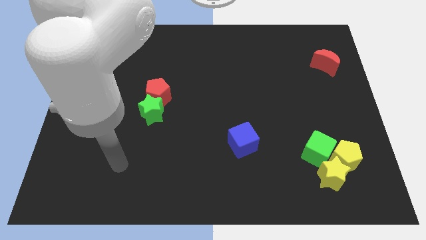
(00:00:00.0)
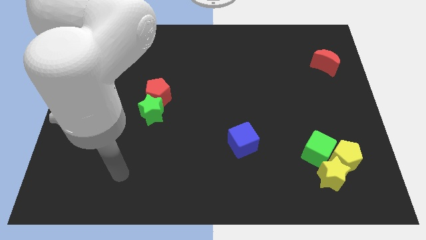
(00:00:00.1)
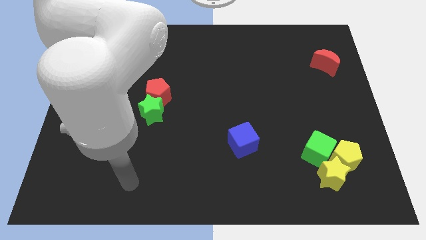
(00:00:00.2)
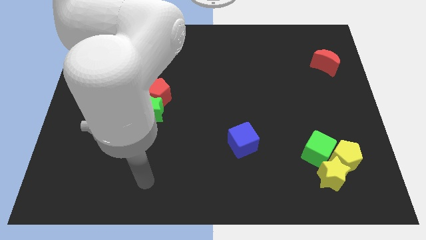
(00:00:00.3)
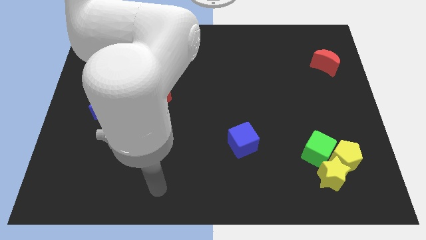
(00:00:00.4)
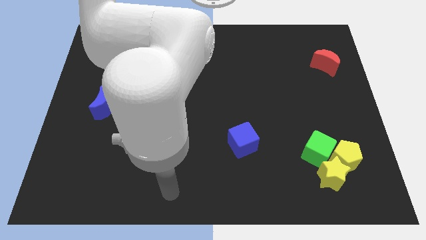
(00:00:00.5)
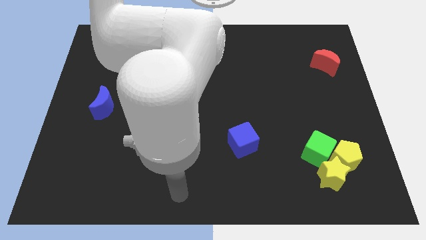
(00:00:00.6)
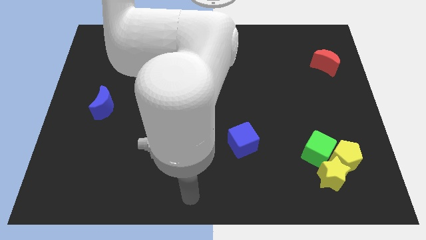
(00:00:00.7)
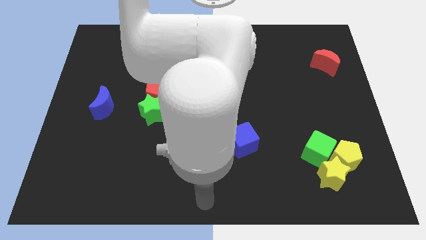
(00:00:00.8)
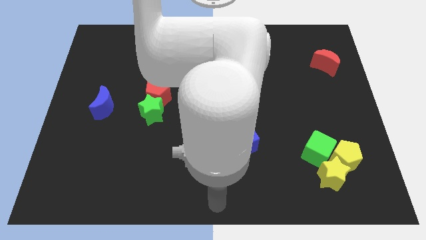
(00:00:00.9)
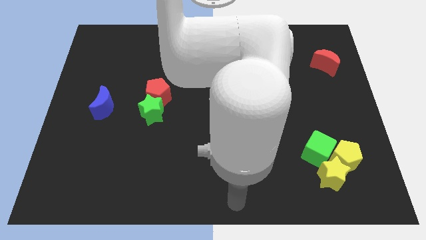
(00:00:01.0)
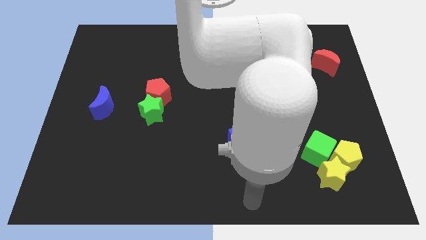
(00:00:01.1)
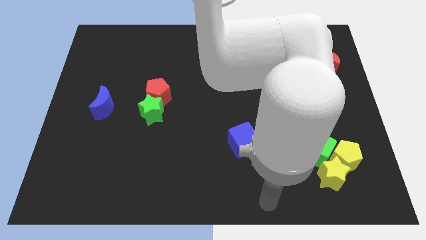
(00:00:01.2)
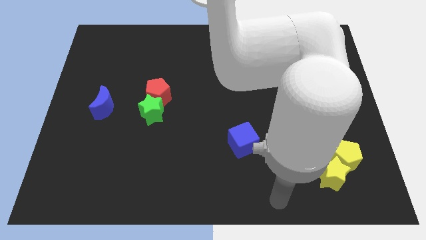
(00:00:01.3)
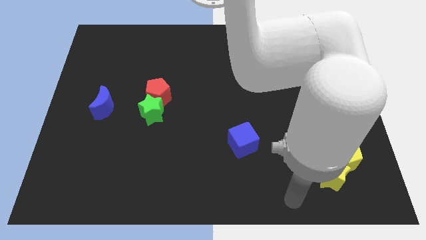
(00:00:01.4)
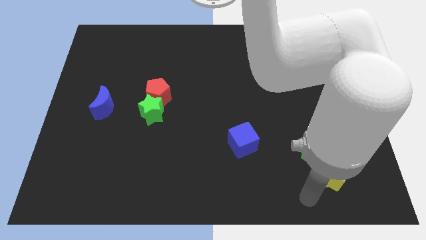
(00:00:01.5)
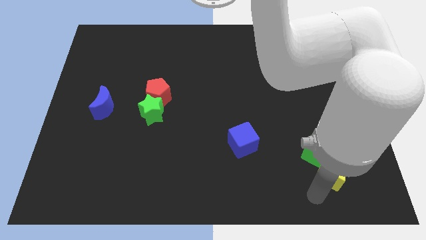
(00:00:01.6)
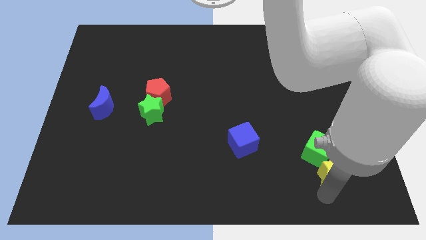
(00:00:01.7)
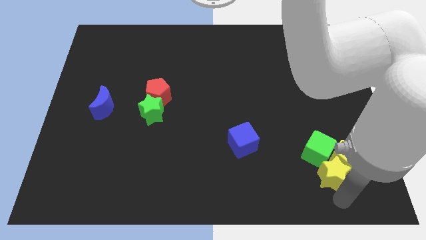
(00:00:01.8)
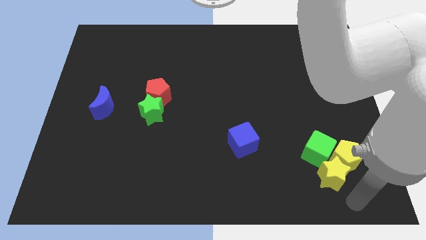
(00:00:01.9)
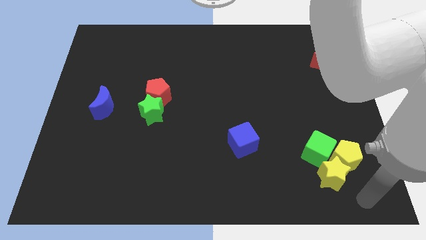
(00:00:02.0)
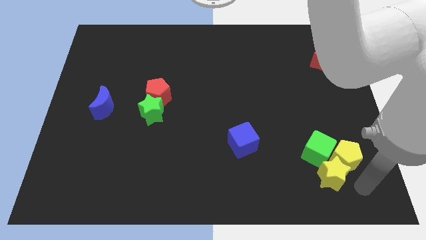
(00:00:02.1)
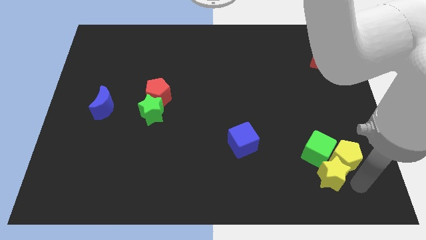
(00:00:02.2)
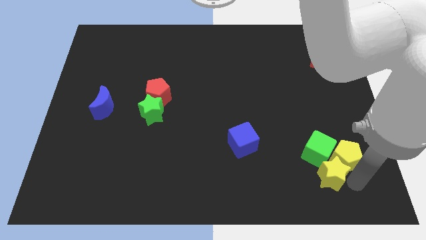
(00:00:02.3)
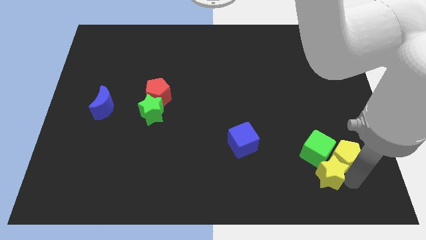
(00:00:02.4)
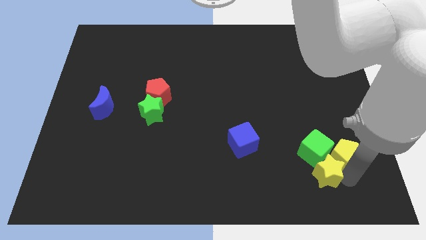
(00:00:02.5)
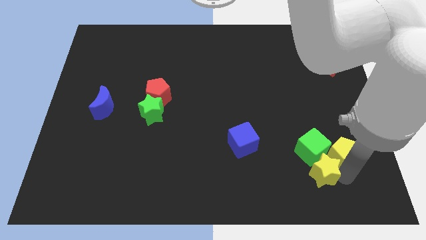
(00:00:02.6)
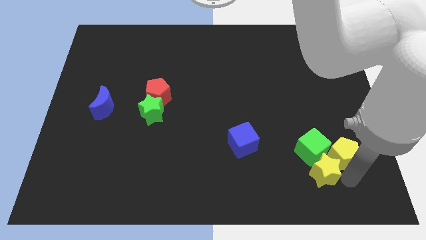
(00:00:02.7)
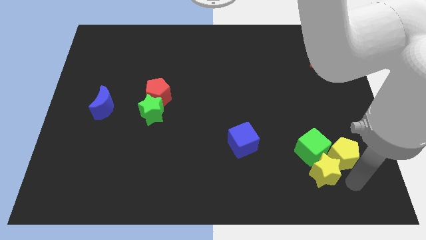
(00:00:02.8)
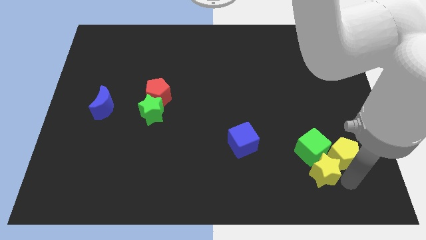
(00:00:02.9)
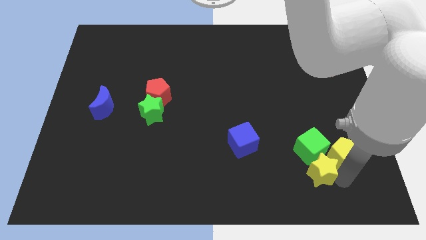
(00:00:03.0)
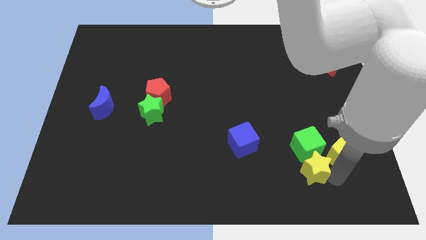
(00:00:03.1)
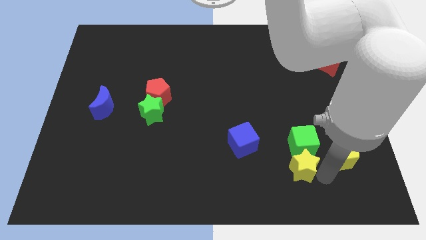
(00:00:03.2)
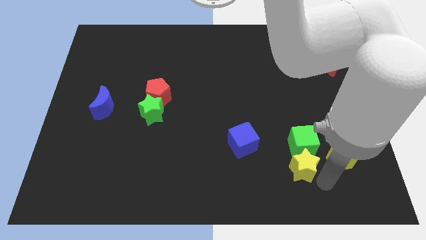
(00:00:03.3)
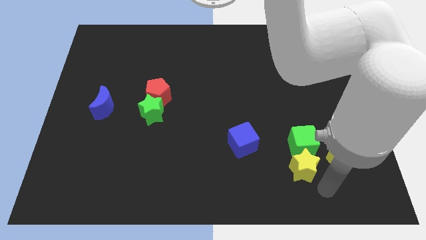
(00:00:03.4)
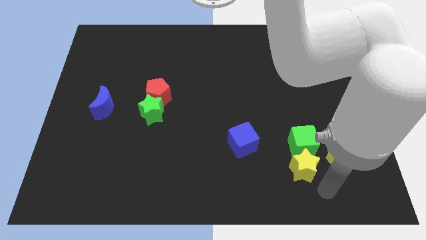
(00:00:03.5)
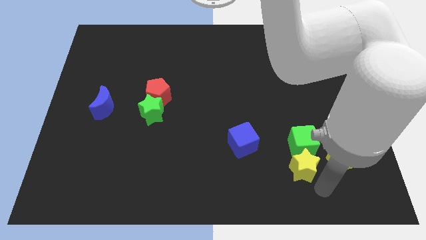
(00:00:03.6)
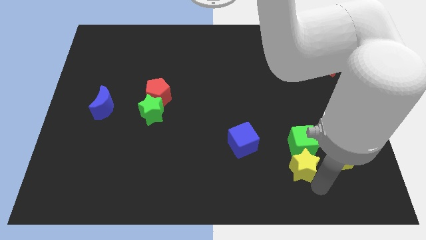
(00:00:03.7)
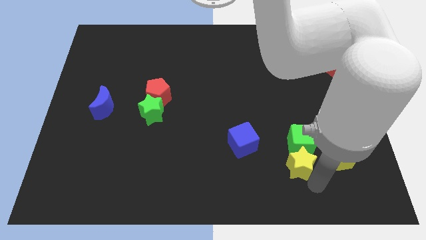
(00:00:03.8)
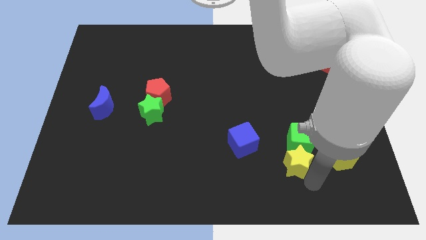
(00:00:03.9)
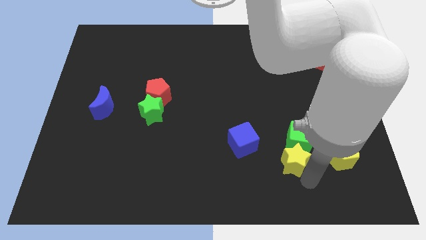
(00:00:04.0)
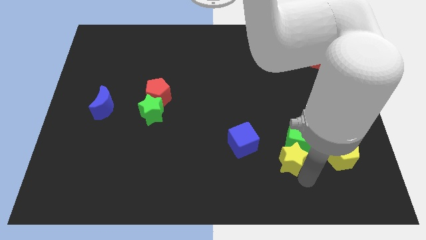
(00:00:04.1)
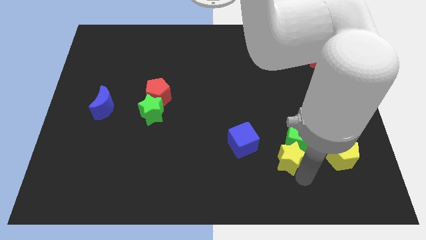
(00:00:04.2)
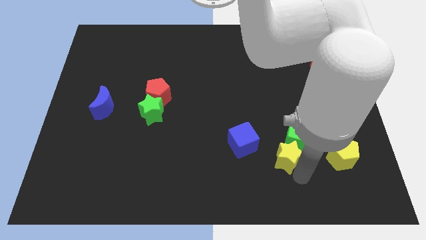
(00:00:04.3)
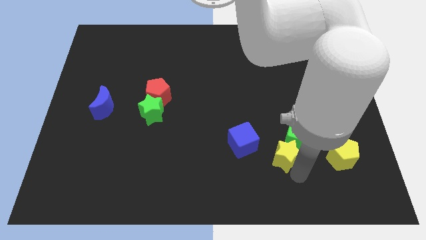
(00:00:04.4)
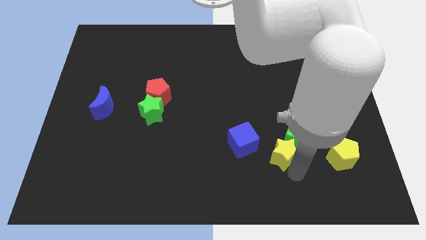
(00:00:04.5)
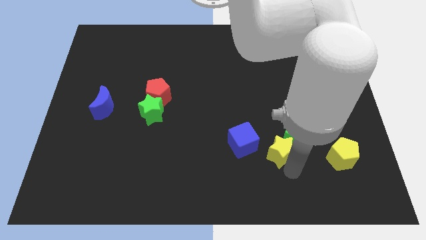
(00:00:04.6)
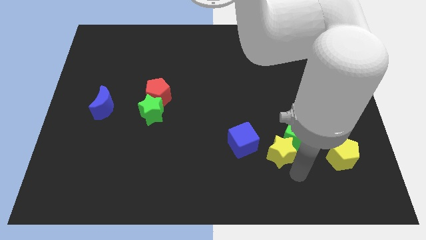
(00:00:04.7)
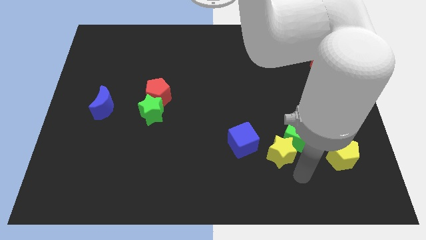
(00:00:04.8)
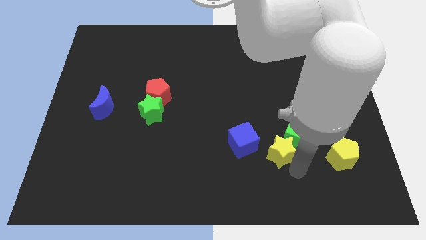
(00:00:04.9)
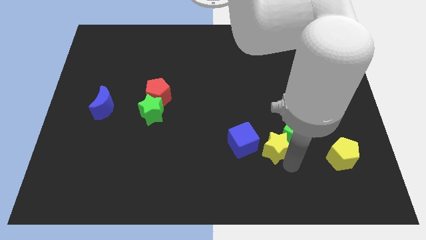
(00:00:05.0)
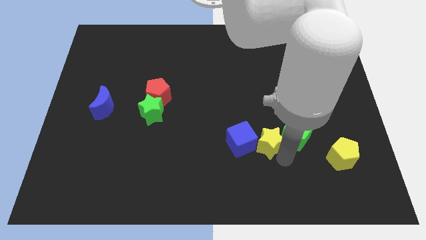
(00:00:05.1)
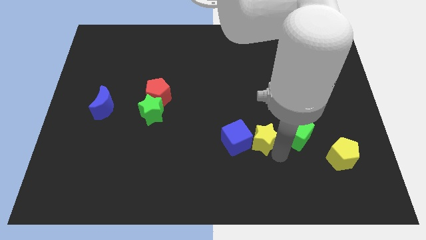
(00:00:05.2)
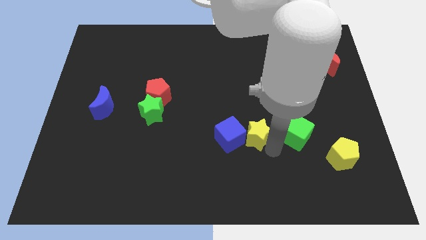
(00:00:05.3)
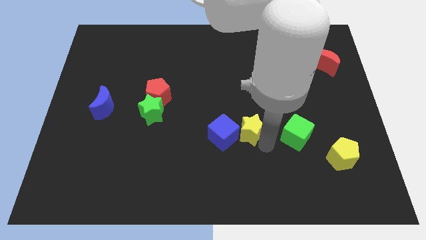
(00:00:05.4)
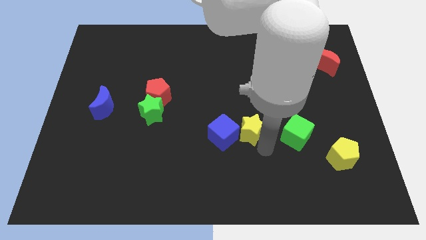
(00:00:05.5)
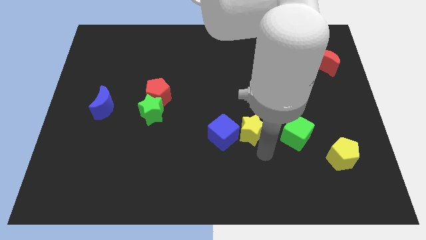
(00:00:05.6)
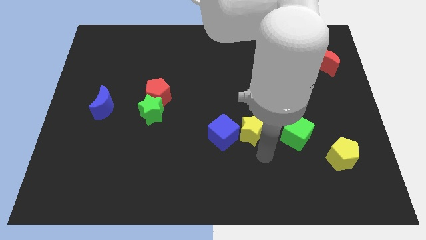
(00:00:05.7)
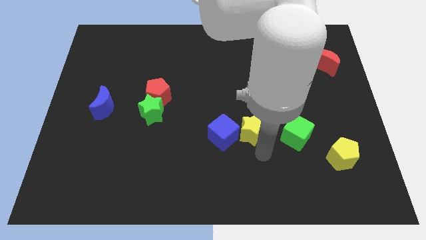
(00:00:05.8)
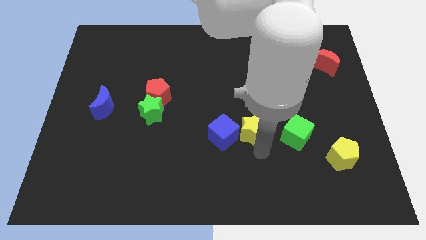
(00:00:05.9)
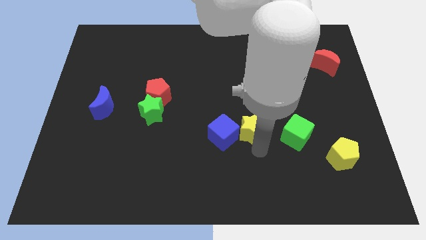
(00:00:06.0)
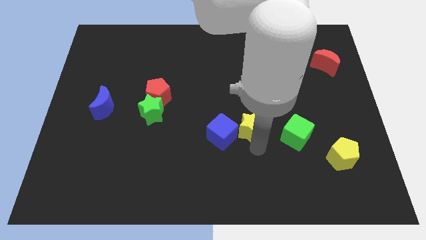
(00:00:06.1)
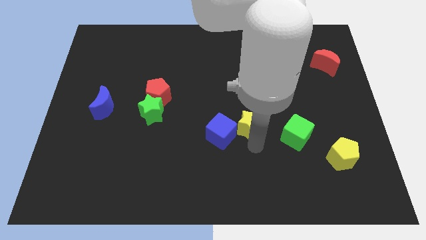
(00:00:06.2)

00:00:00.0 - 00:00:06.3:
slide the yellow star diagonally upwards and to the left

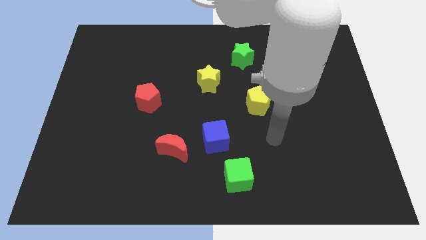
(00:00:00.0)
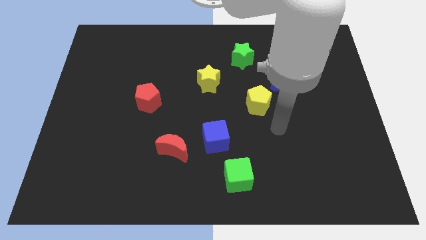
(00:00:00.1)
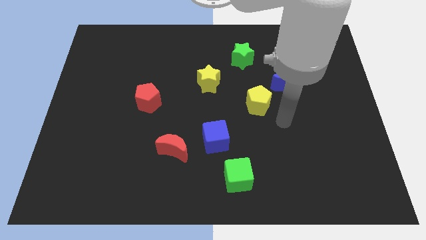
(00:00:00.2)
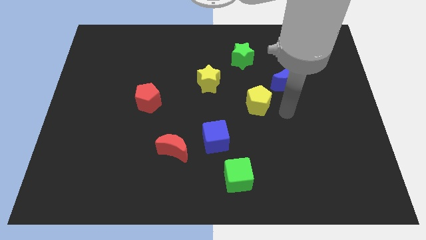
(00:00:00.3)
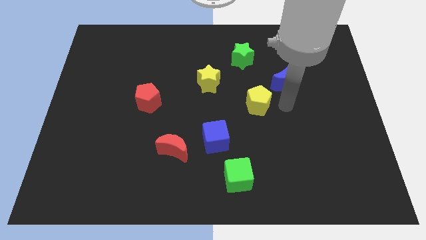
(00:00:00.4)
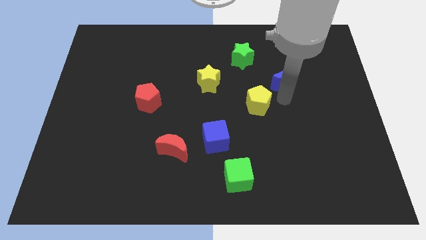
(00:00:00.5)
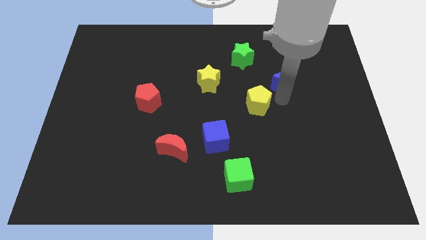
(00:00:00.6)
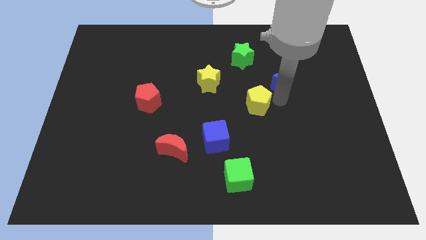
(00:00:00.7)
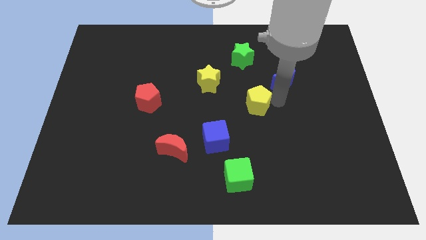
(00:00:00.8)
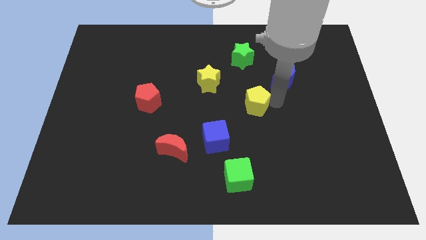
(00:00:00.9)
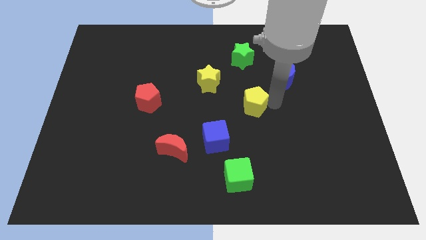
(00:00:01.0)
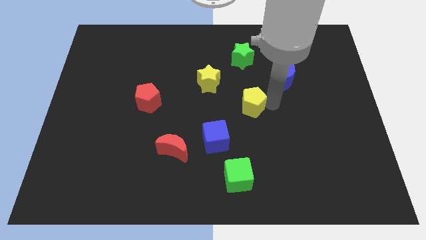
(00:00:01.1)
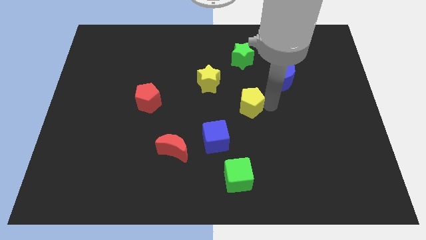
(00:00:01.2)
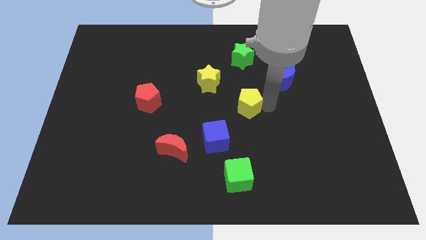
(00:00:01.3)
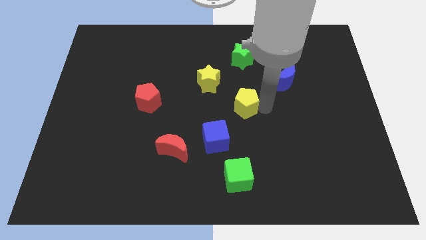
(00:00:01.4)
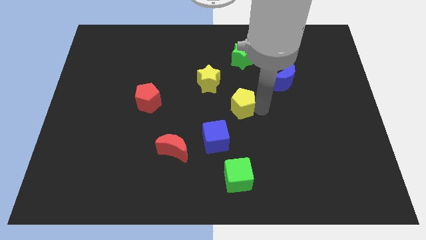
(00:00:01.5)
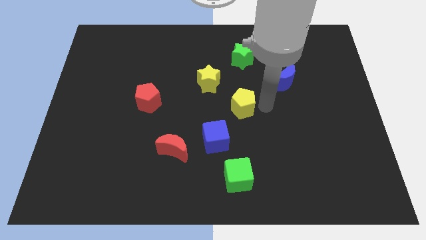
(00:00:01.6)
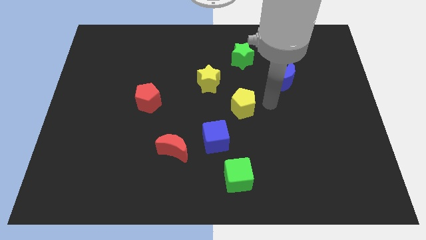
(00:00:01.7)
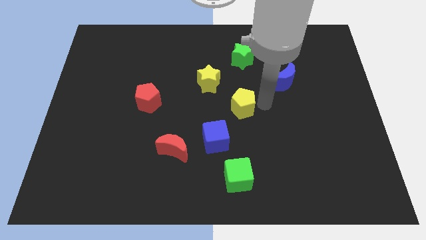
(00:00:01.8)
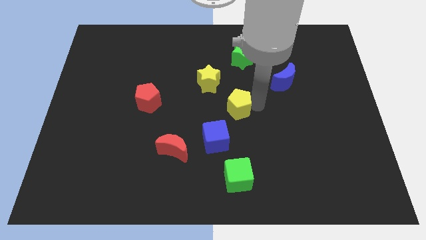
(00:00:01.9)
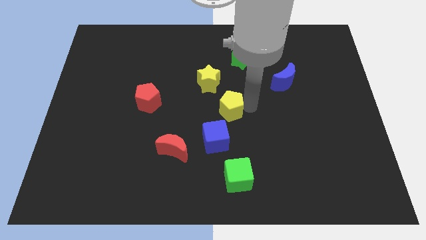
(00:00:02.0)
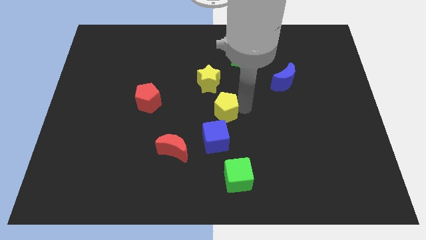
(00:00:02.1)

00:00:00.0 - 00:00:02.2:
slightly move the yellow pentagon left
